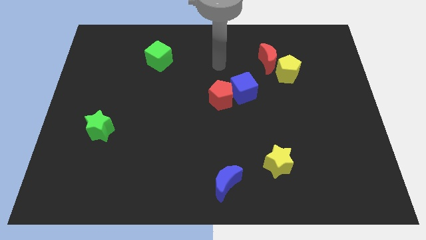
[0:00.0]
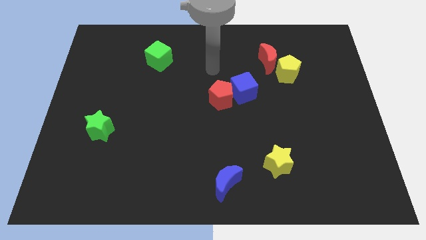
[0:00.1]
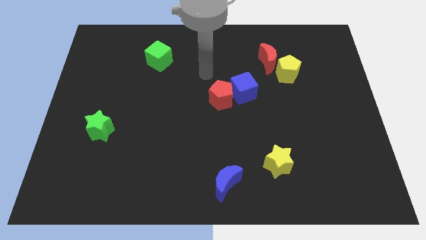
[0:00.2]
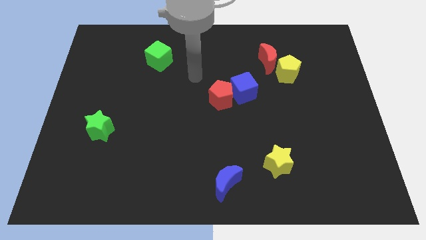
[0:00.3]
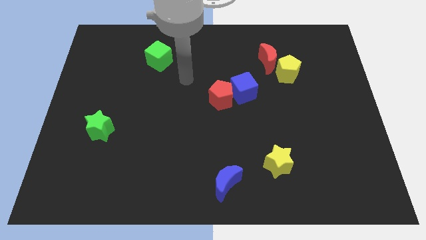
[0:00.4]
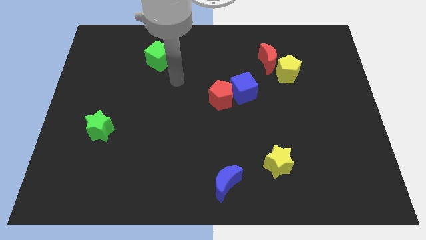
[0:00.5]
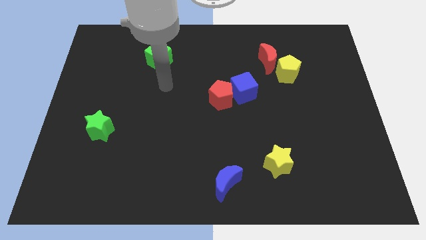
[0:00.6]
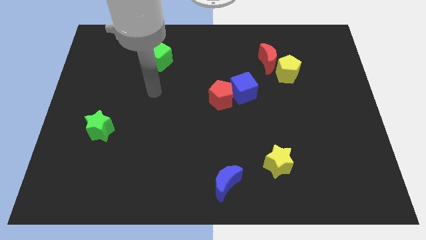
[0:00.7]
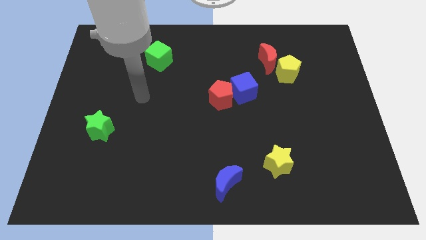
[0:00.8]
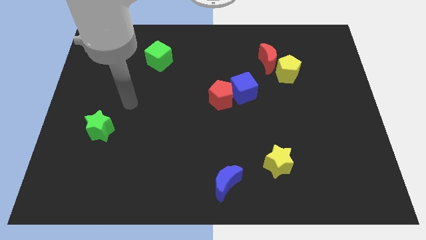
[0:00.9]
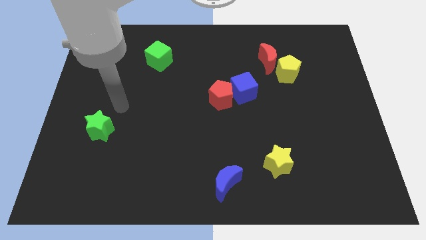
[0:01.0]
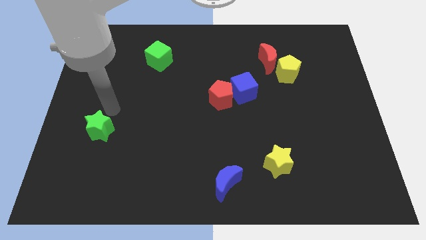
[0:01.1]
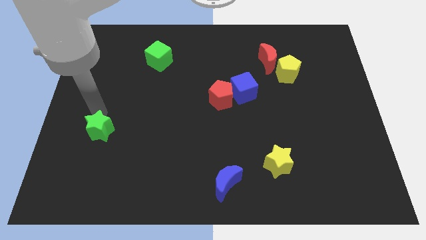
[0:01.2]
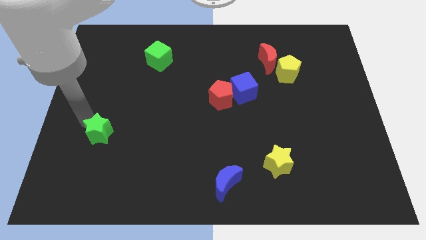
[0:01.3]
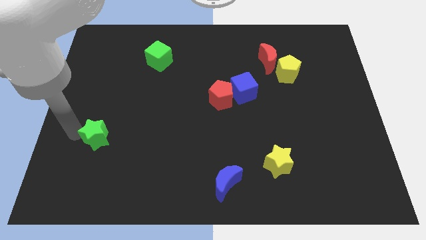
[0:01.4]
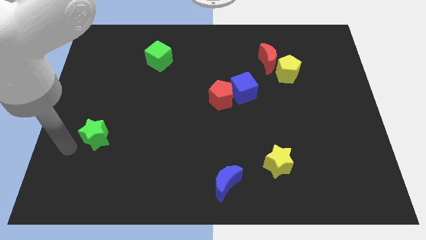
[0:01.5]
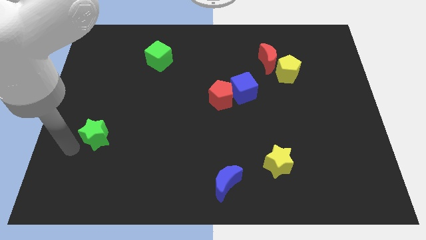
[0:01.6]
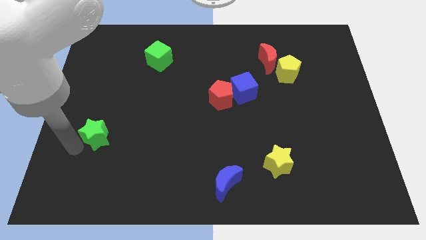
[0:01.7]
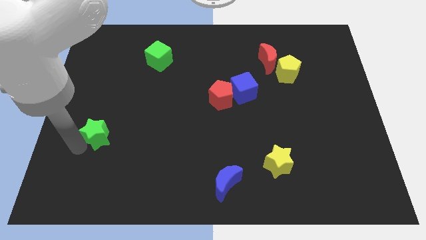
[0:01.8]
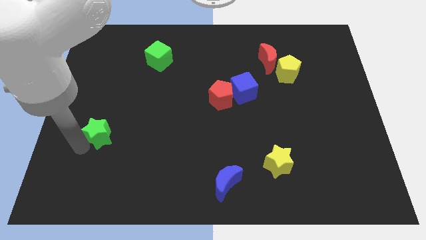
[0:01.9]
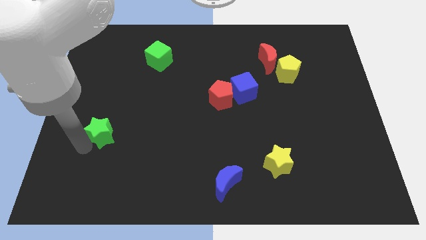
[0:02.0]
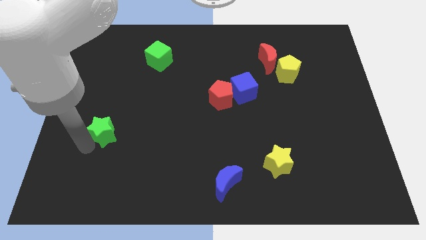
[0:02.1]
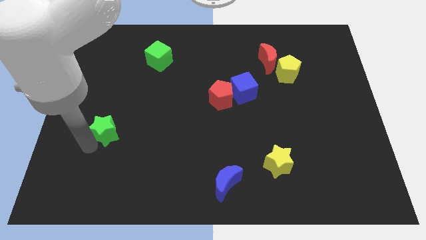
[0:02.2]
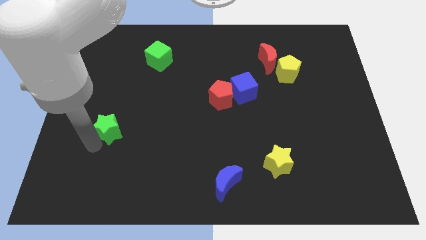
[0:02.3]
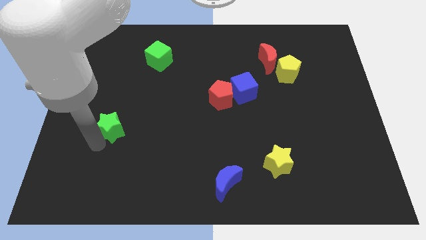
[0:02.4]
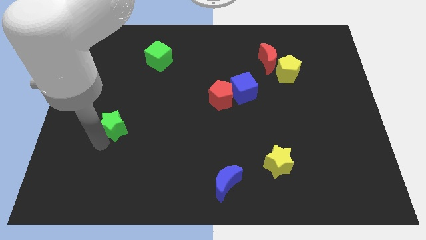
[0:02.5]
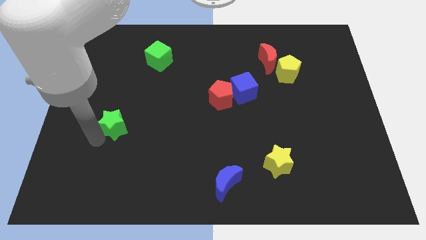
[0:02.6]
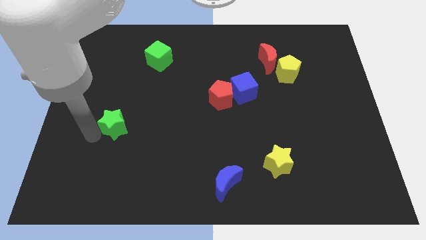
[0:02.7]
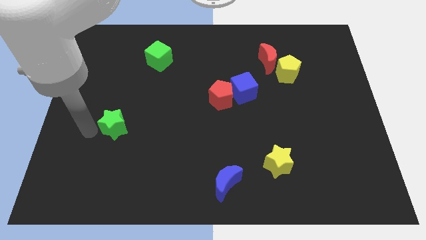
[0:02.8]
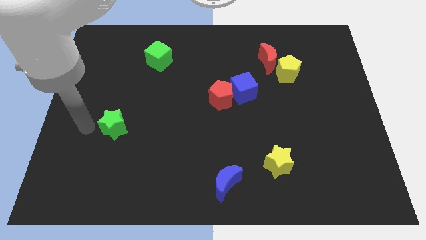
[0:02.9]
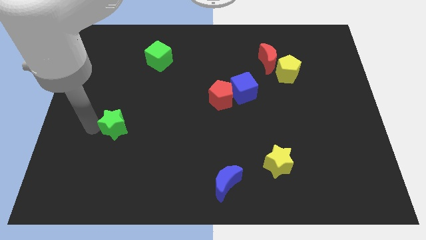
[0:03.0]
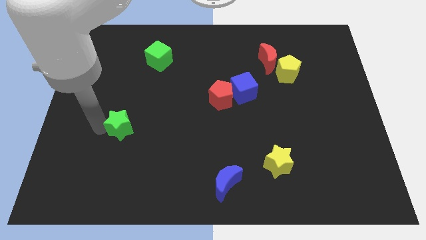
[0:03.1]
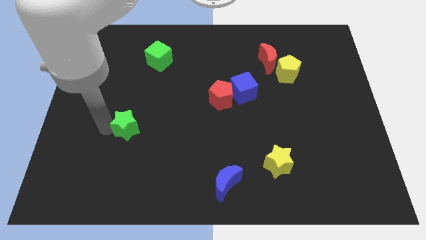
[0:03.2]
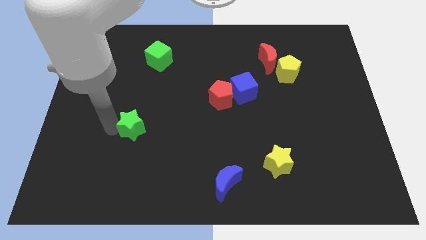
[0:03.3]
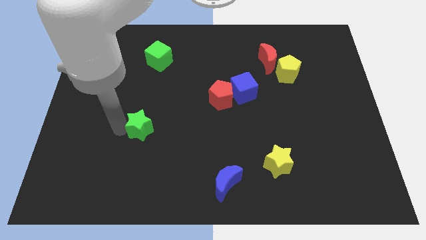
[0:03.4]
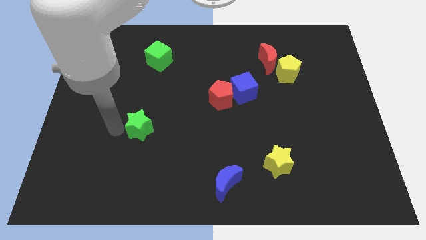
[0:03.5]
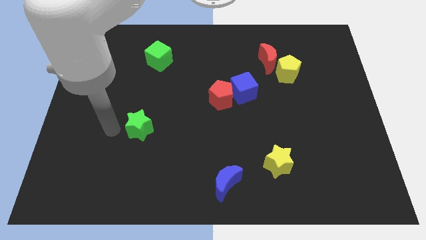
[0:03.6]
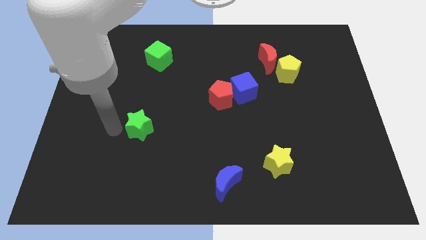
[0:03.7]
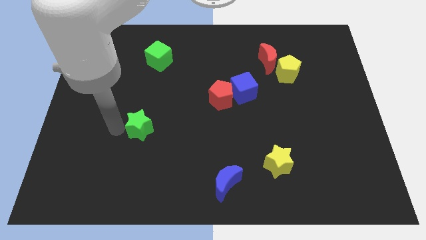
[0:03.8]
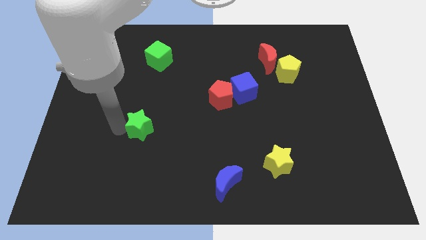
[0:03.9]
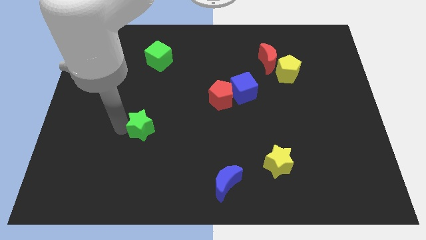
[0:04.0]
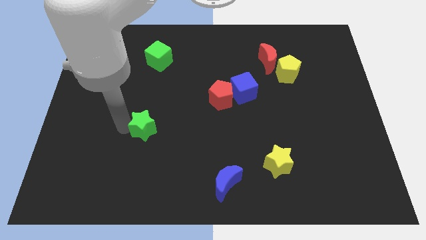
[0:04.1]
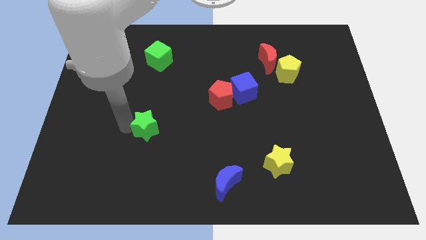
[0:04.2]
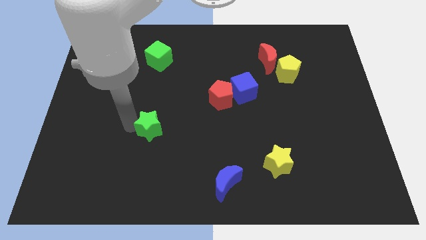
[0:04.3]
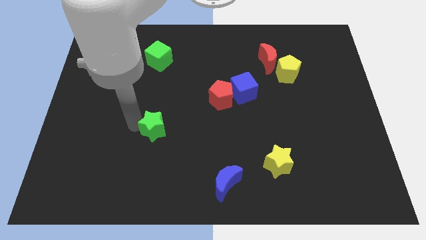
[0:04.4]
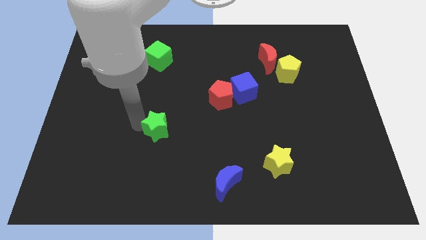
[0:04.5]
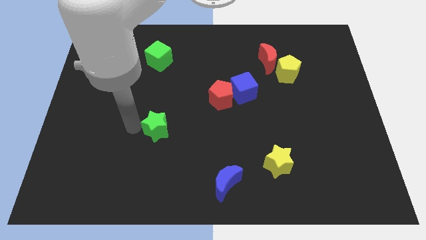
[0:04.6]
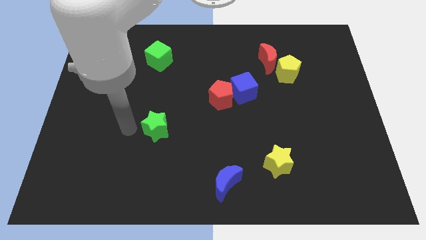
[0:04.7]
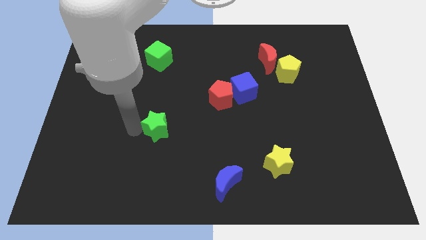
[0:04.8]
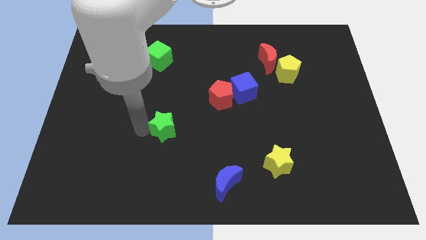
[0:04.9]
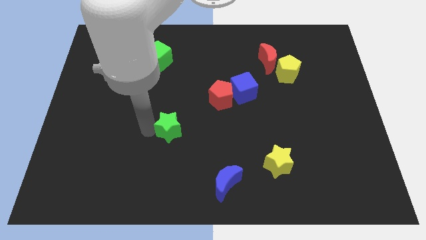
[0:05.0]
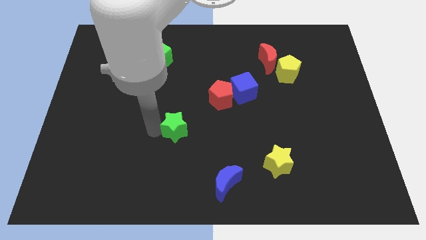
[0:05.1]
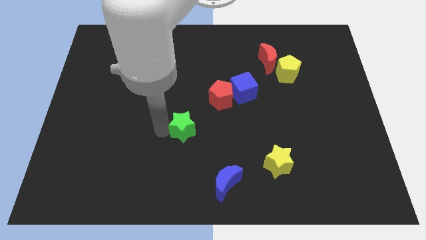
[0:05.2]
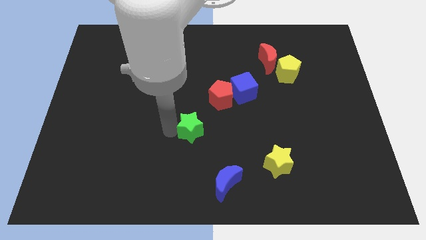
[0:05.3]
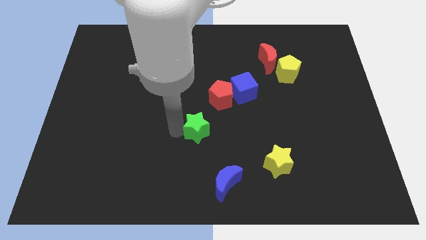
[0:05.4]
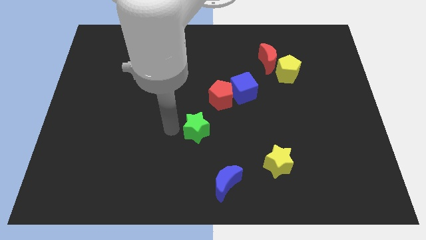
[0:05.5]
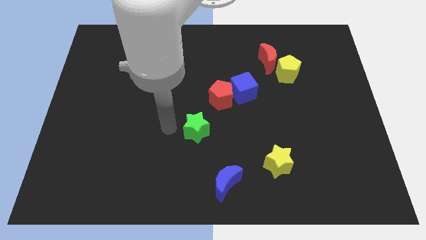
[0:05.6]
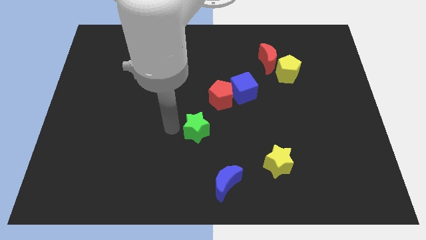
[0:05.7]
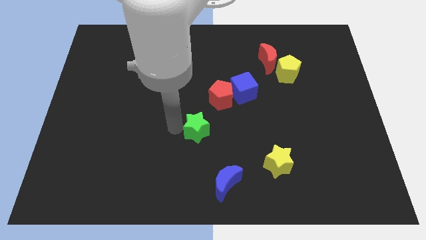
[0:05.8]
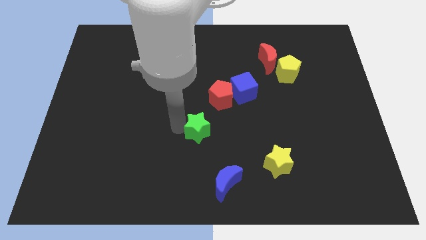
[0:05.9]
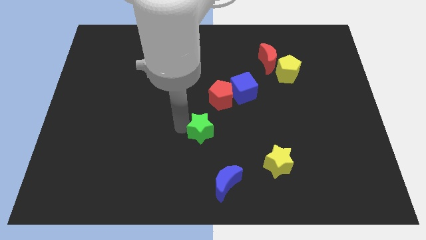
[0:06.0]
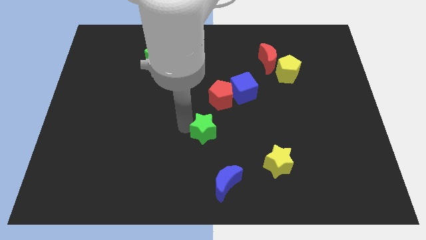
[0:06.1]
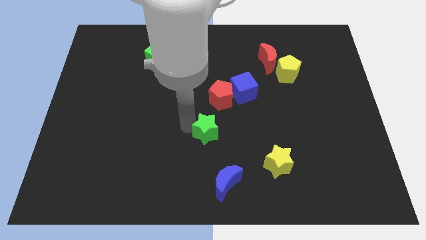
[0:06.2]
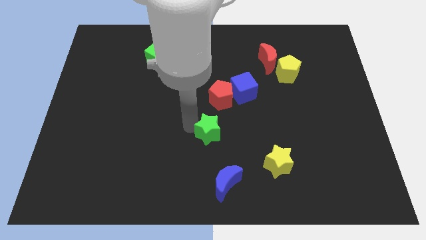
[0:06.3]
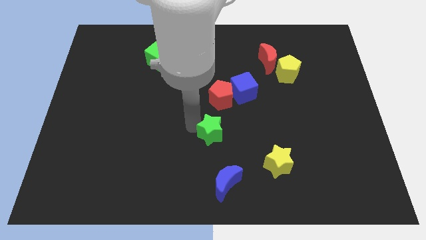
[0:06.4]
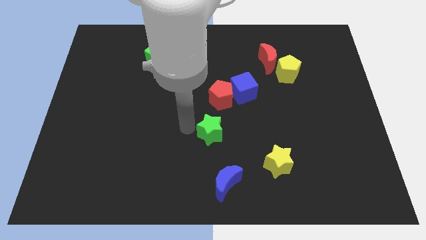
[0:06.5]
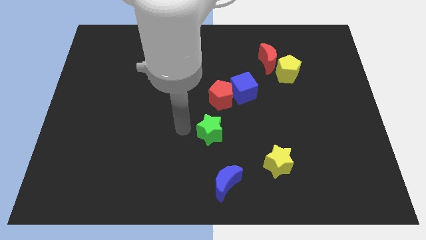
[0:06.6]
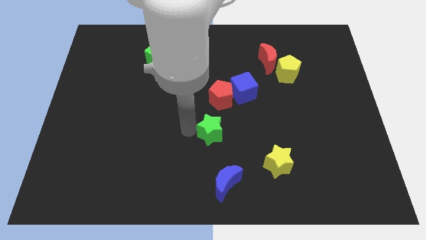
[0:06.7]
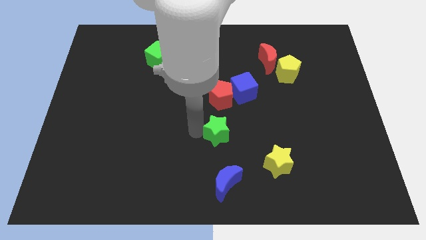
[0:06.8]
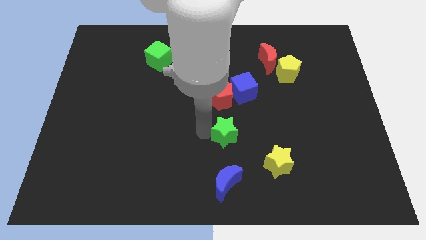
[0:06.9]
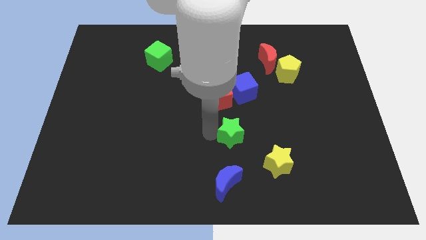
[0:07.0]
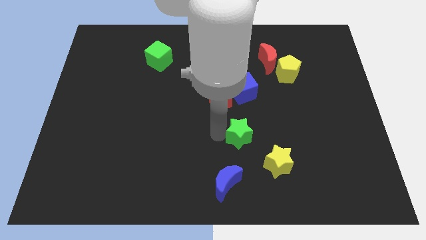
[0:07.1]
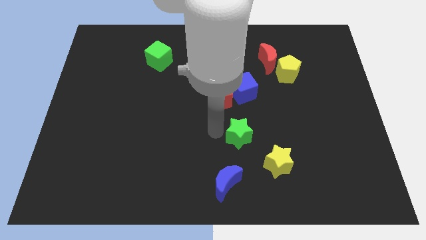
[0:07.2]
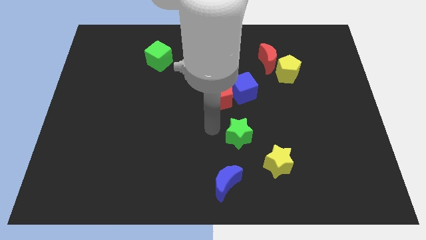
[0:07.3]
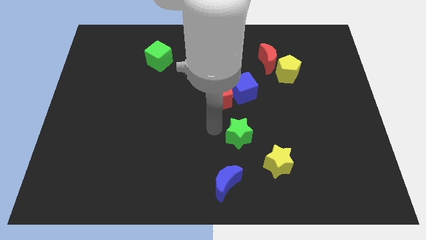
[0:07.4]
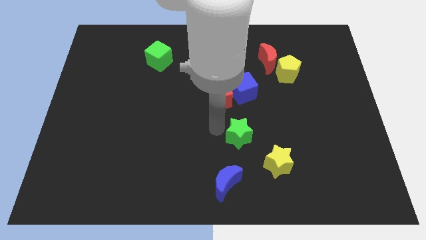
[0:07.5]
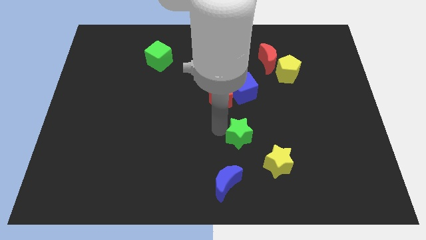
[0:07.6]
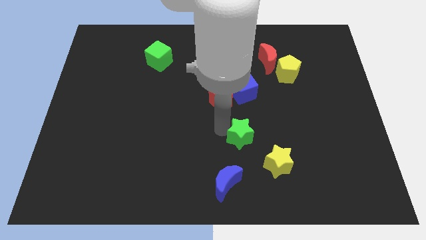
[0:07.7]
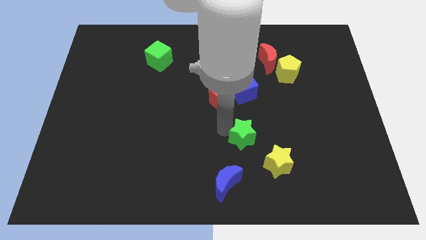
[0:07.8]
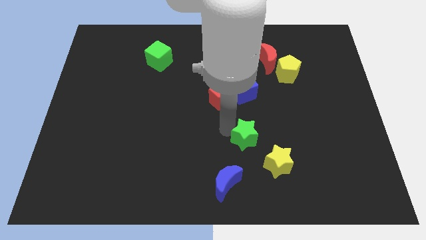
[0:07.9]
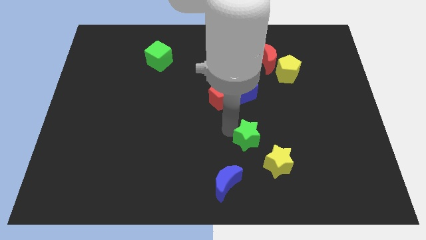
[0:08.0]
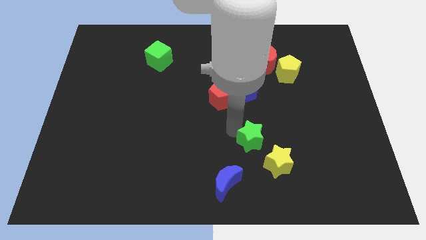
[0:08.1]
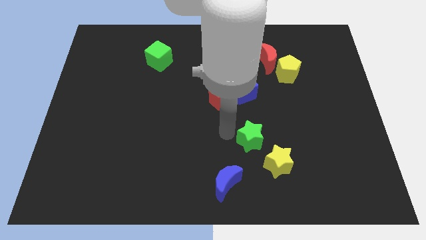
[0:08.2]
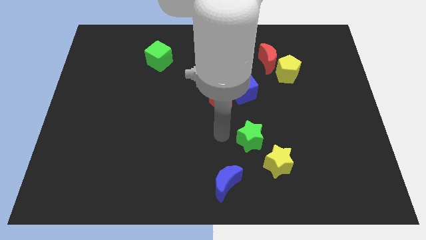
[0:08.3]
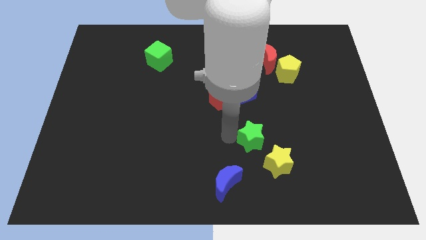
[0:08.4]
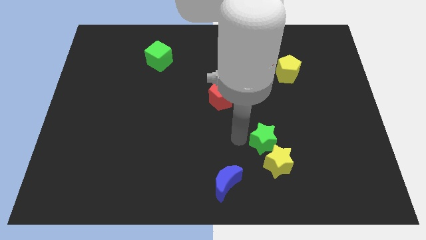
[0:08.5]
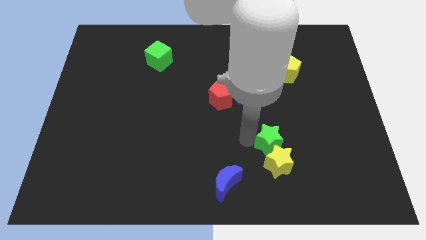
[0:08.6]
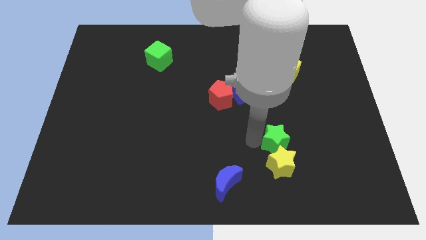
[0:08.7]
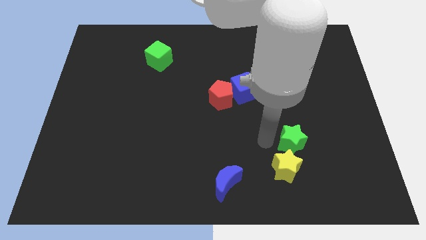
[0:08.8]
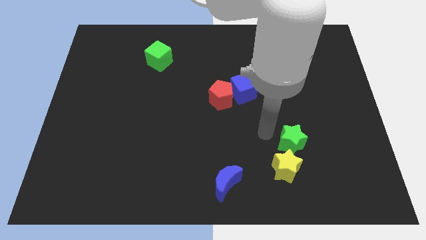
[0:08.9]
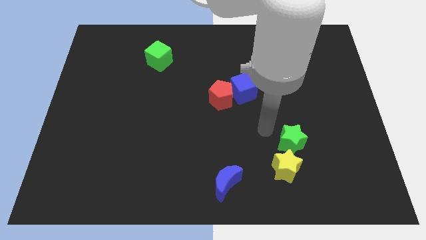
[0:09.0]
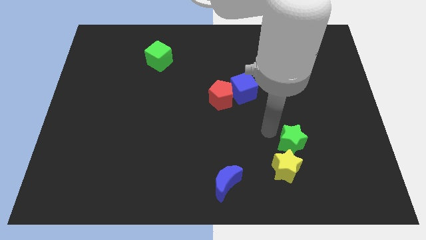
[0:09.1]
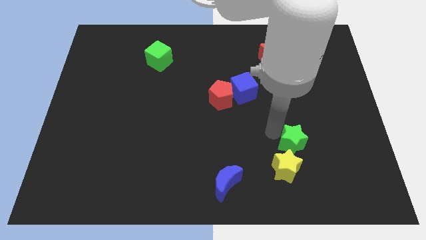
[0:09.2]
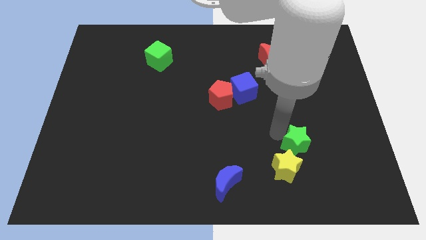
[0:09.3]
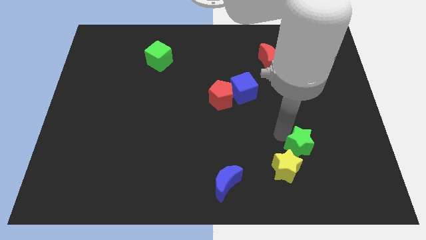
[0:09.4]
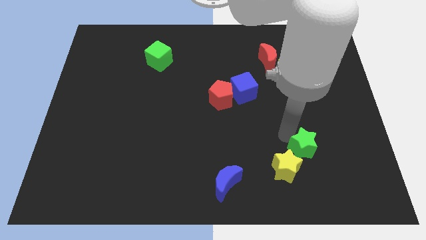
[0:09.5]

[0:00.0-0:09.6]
move the green star to the right side of the yellow star
